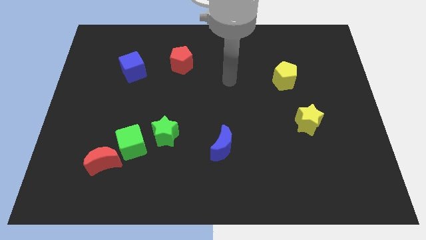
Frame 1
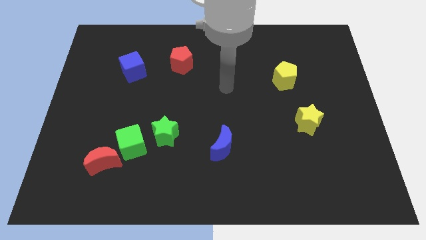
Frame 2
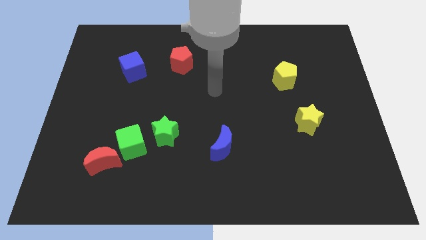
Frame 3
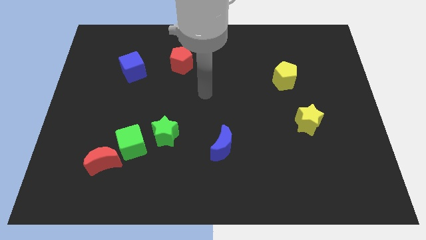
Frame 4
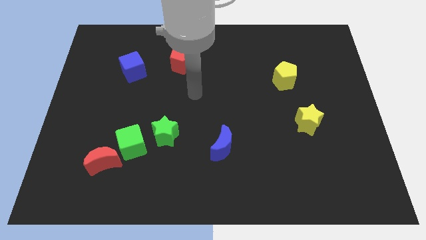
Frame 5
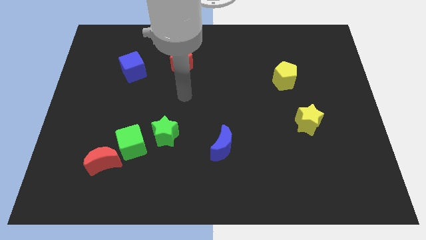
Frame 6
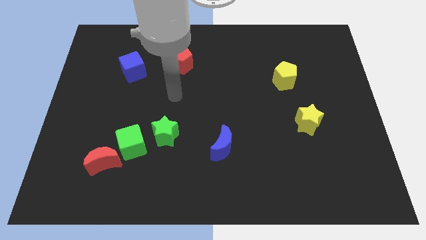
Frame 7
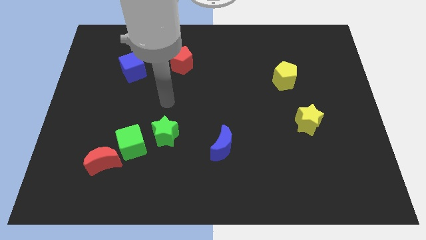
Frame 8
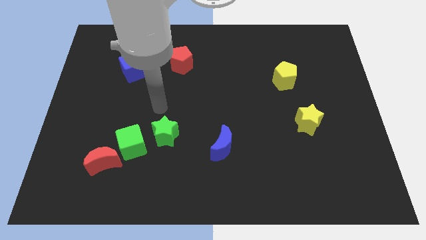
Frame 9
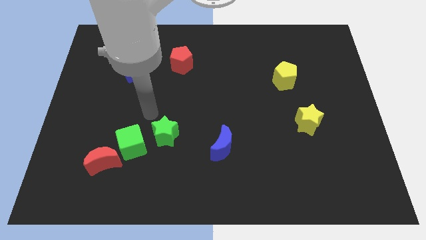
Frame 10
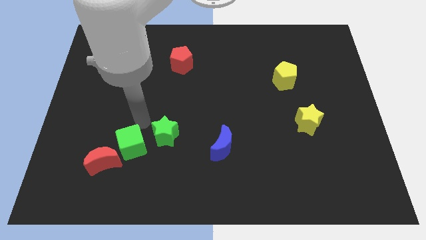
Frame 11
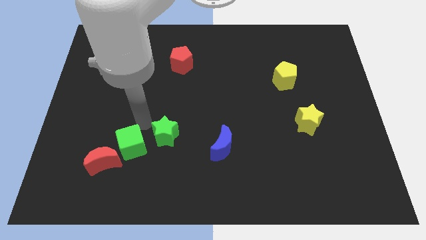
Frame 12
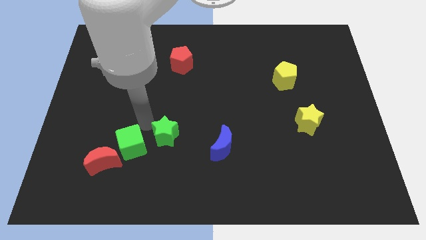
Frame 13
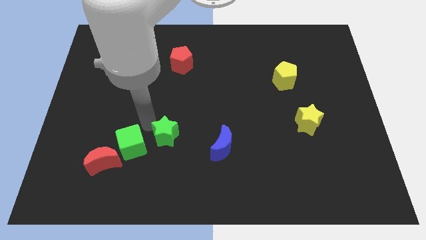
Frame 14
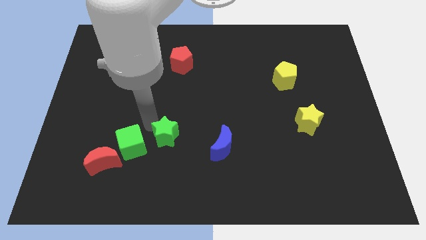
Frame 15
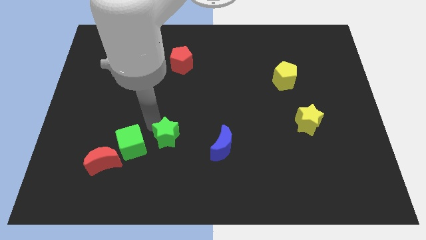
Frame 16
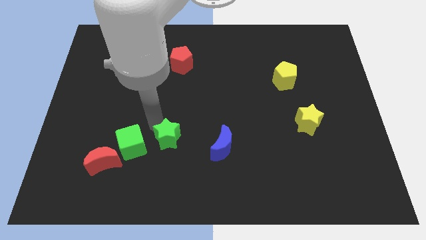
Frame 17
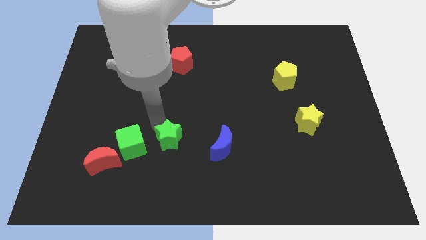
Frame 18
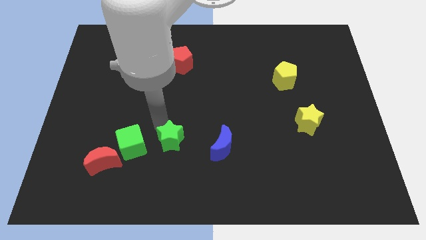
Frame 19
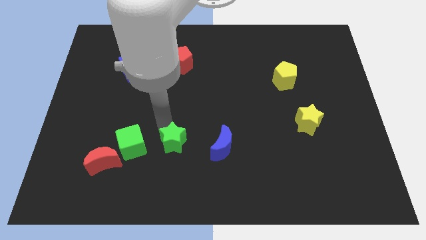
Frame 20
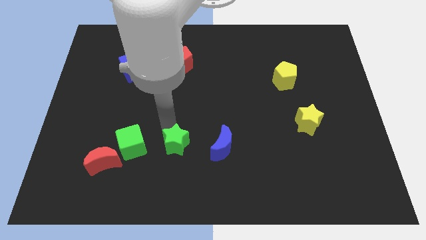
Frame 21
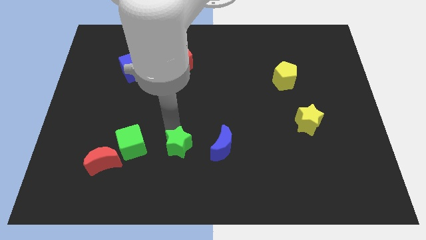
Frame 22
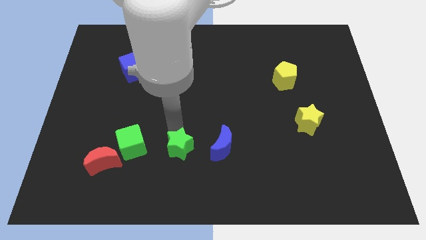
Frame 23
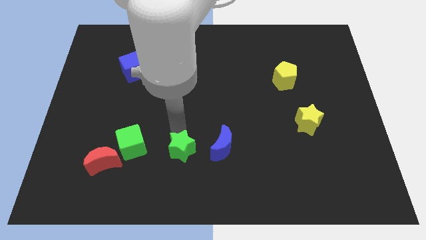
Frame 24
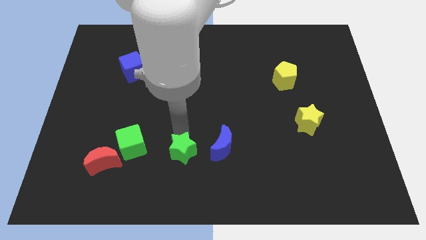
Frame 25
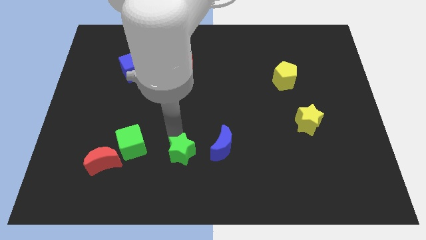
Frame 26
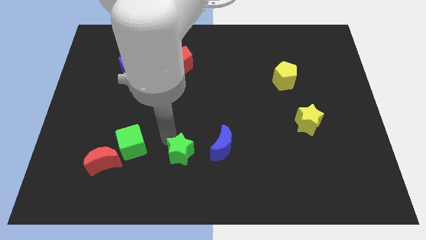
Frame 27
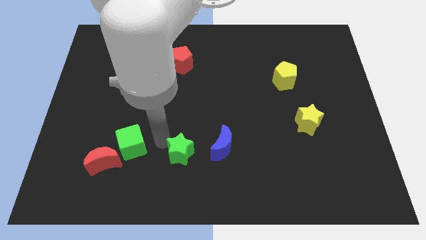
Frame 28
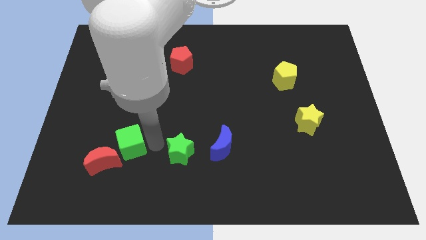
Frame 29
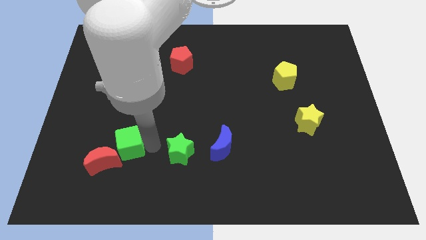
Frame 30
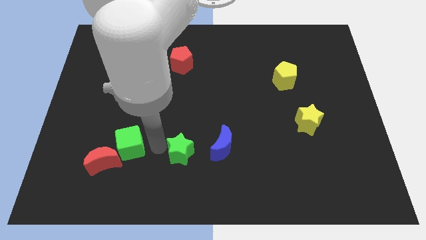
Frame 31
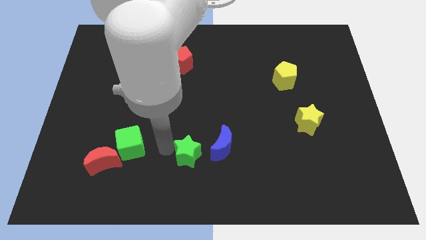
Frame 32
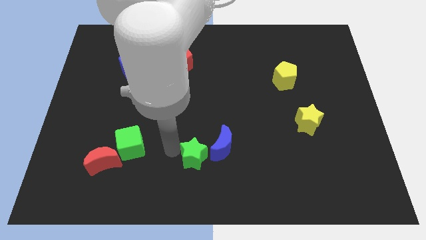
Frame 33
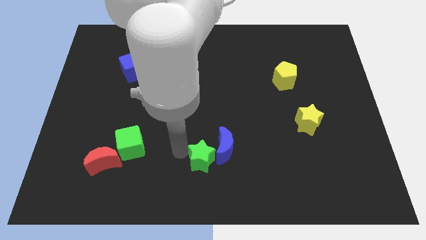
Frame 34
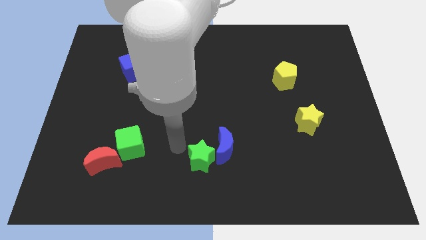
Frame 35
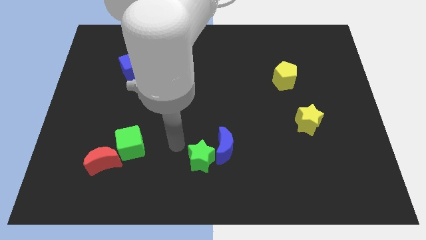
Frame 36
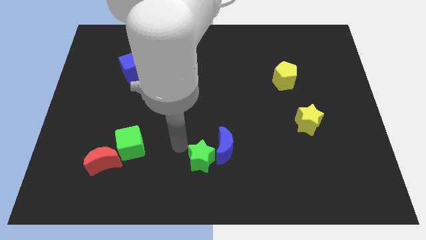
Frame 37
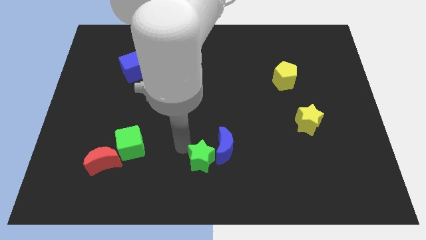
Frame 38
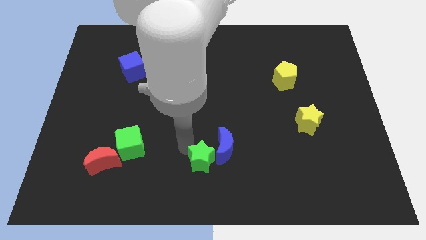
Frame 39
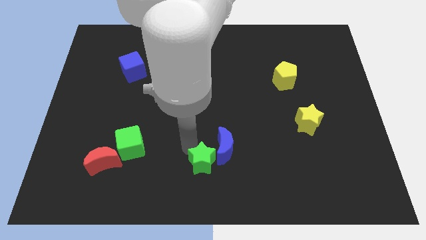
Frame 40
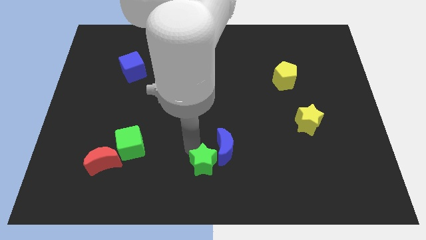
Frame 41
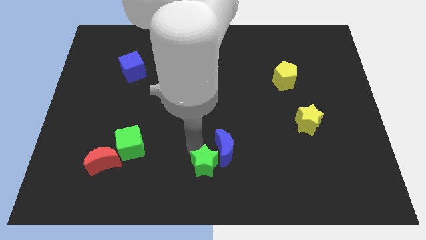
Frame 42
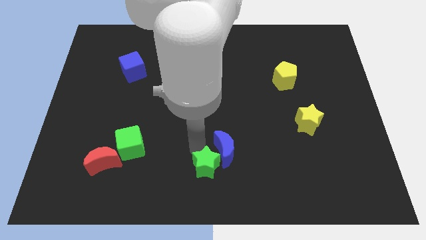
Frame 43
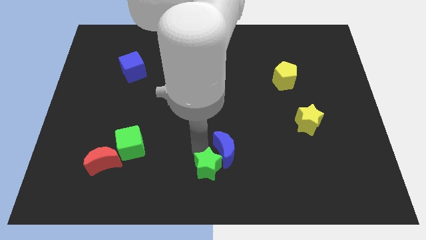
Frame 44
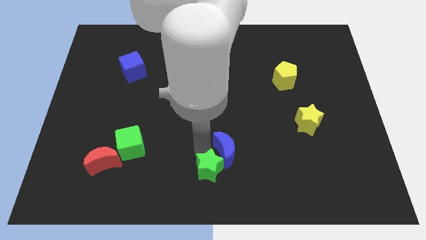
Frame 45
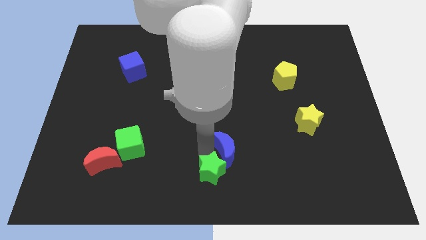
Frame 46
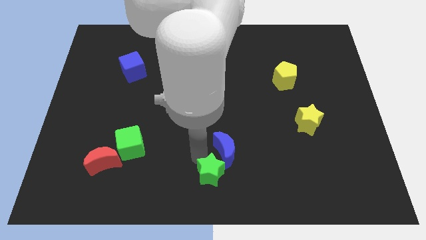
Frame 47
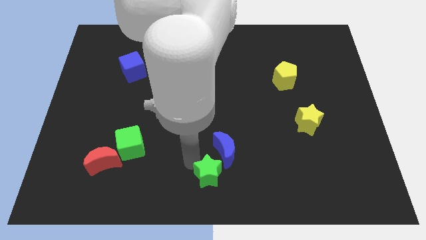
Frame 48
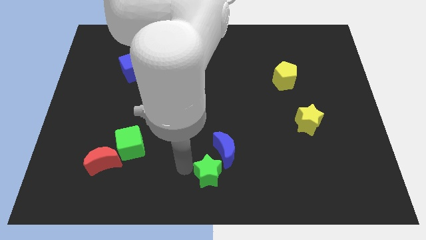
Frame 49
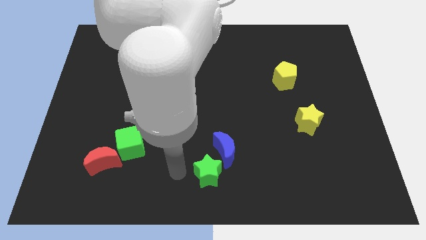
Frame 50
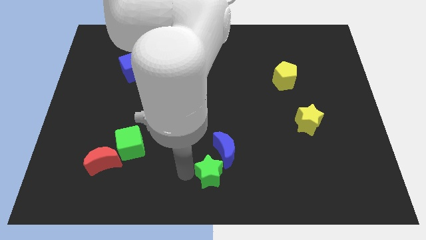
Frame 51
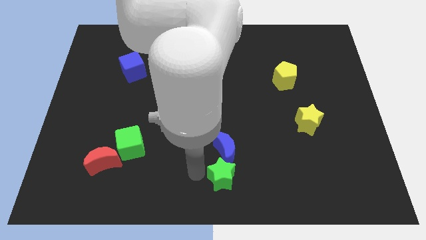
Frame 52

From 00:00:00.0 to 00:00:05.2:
move the green star to the bottom right of the blue moon

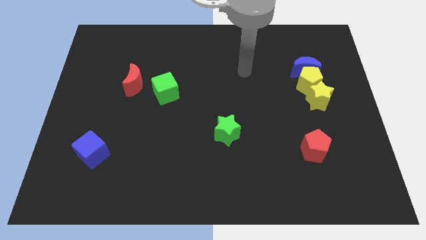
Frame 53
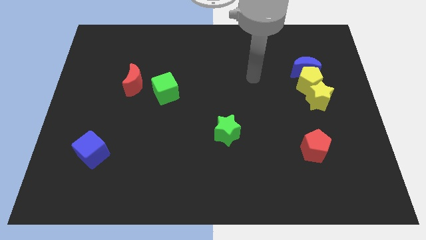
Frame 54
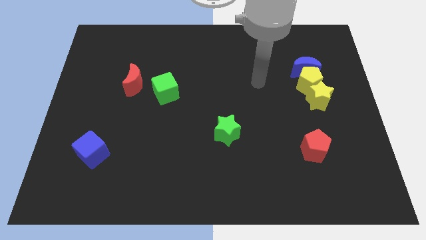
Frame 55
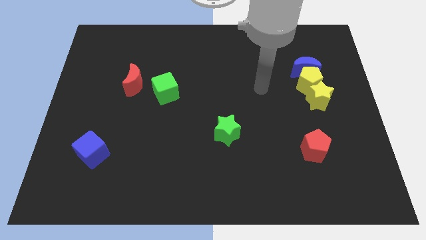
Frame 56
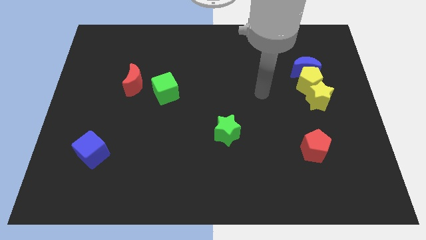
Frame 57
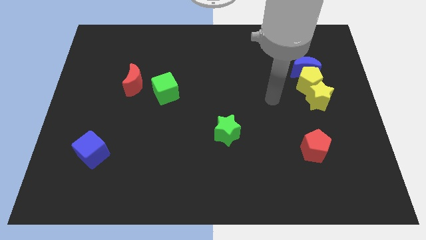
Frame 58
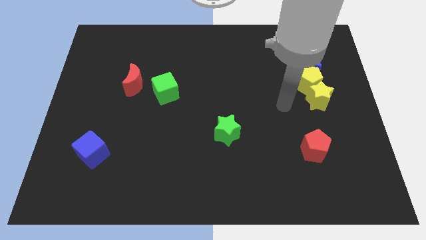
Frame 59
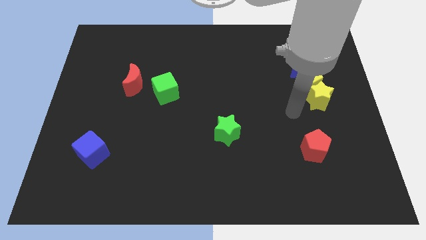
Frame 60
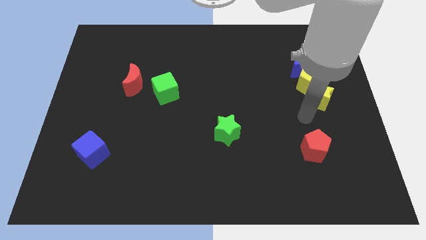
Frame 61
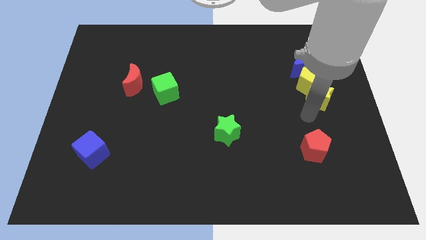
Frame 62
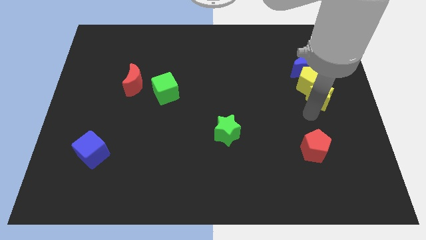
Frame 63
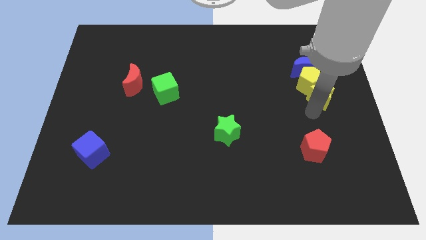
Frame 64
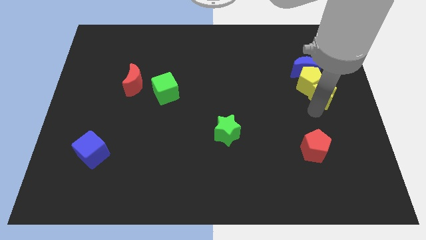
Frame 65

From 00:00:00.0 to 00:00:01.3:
put the yellow star to the bottom right of the blue moon
